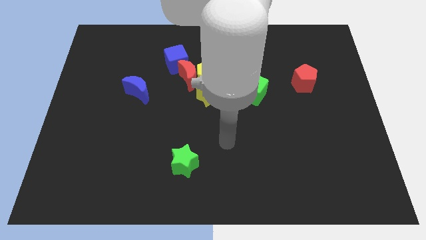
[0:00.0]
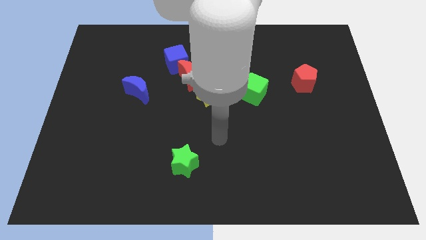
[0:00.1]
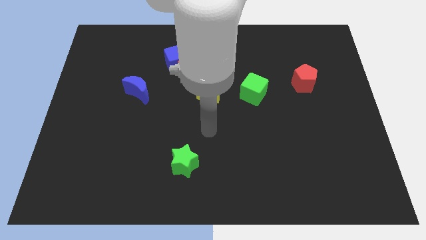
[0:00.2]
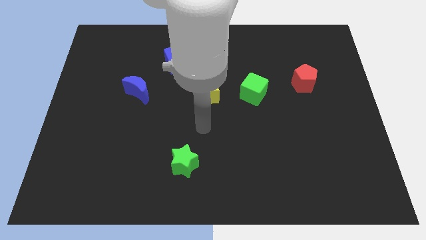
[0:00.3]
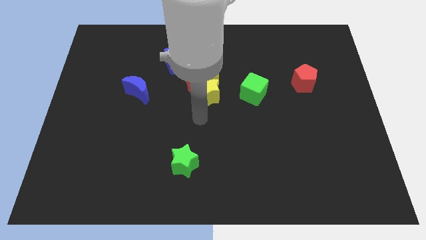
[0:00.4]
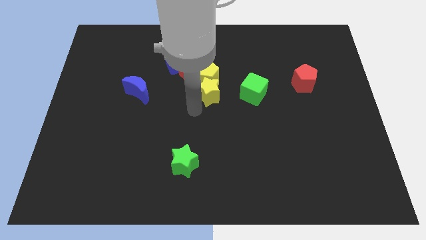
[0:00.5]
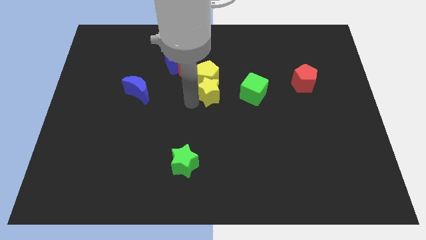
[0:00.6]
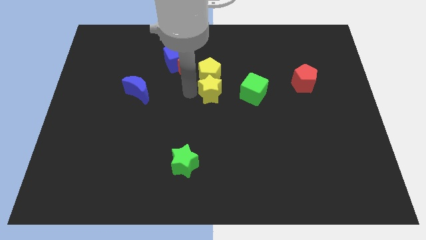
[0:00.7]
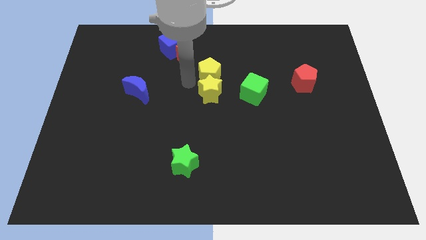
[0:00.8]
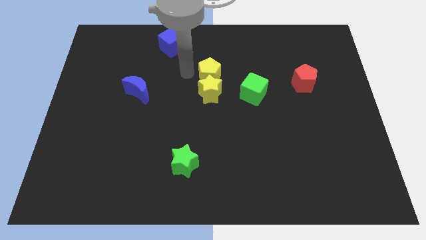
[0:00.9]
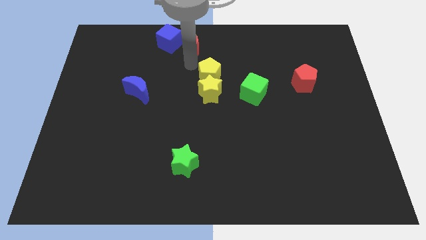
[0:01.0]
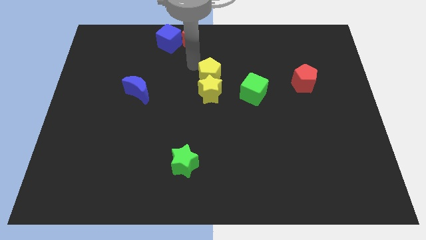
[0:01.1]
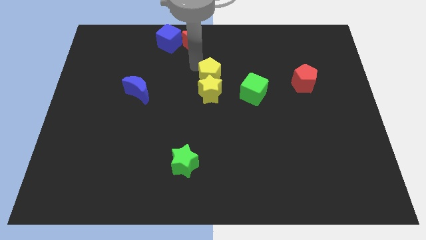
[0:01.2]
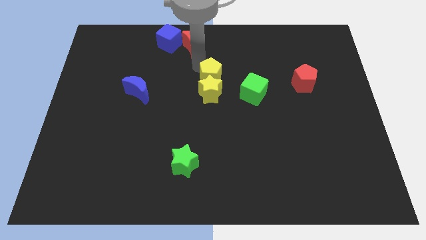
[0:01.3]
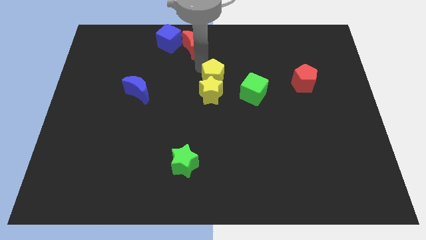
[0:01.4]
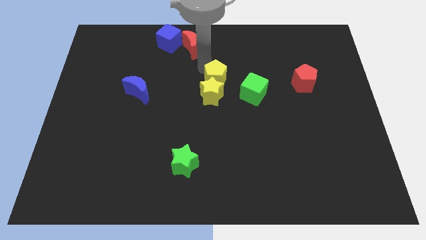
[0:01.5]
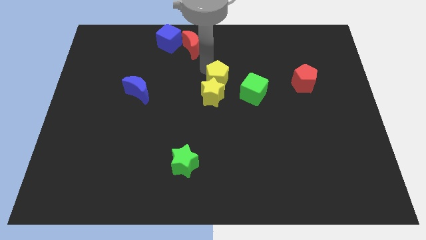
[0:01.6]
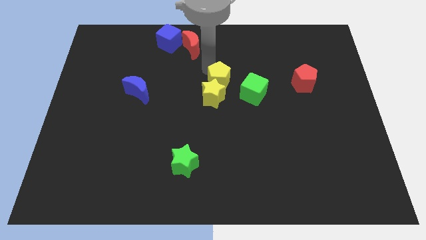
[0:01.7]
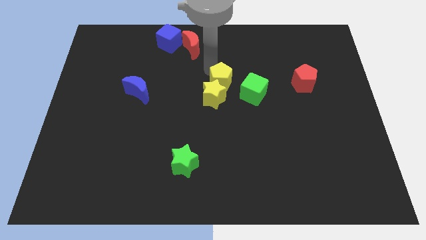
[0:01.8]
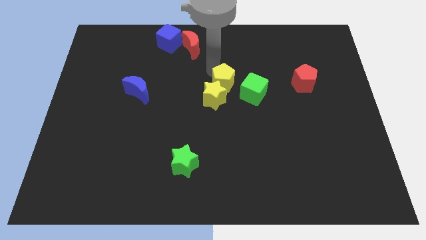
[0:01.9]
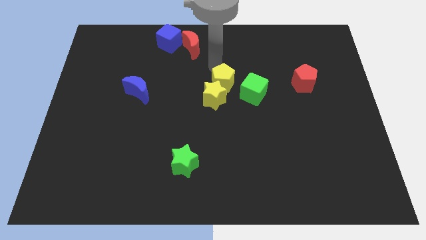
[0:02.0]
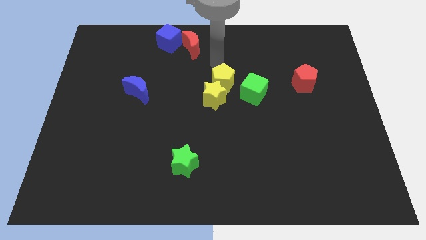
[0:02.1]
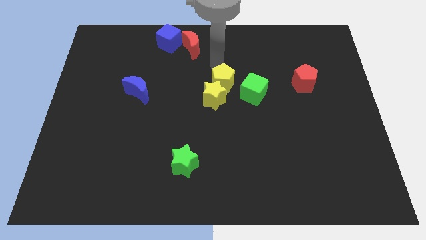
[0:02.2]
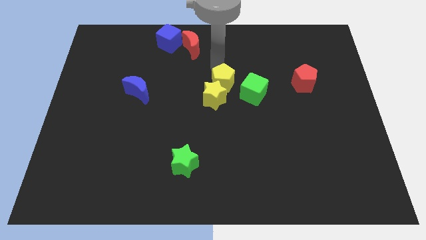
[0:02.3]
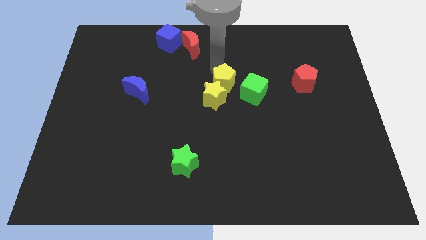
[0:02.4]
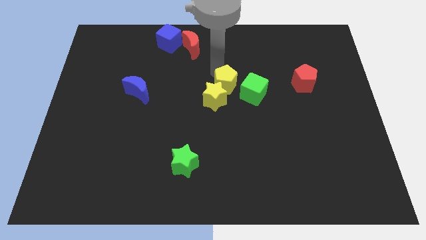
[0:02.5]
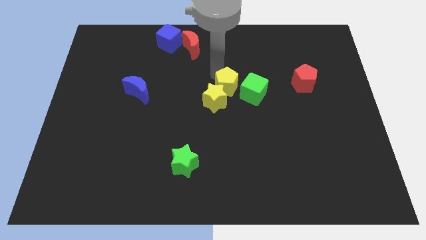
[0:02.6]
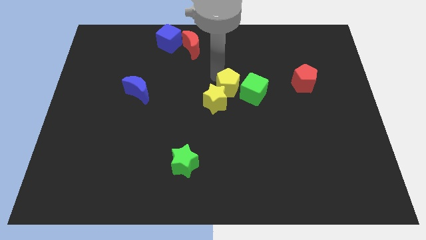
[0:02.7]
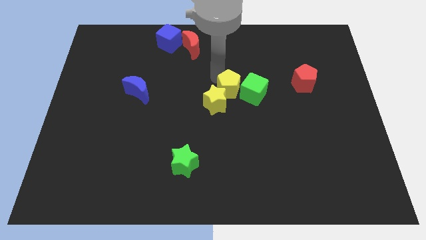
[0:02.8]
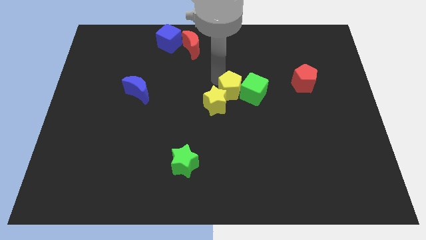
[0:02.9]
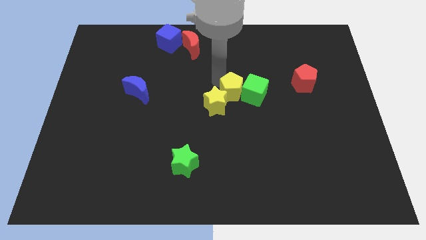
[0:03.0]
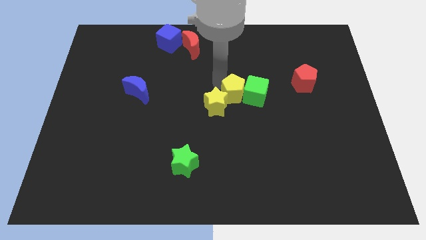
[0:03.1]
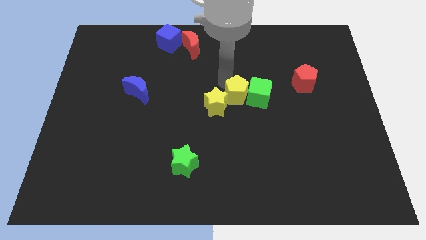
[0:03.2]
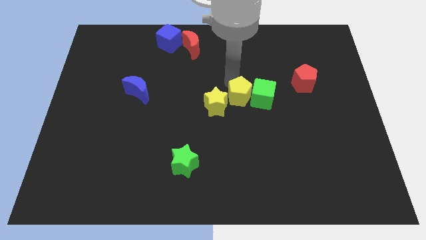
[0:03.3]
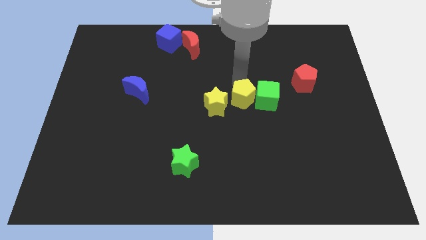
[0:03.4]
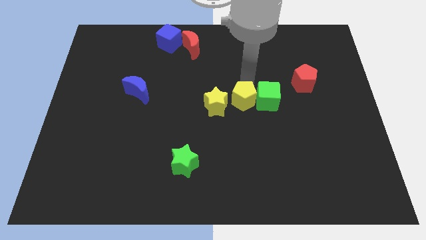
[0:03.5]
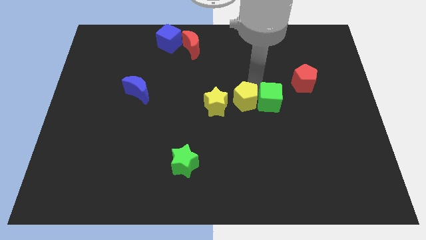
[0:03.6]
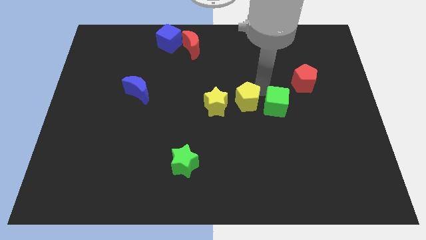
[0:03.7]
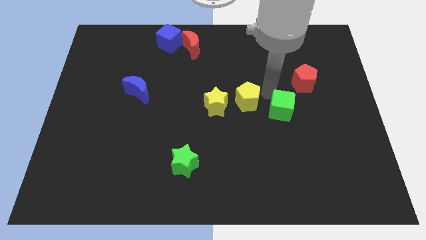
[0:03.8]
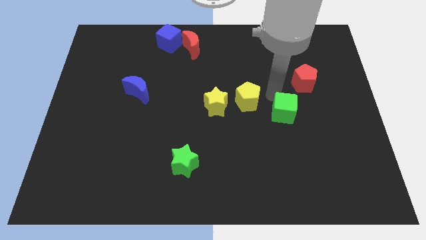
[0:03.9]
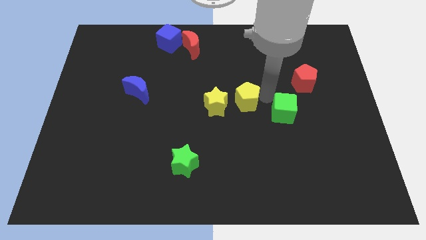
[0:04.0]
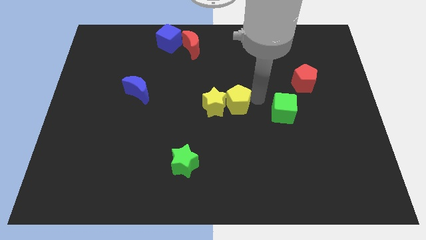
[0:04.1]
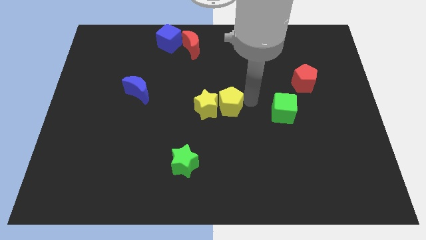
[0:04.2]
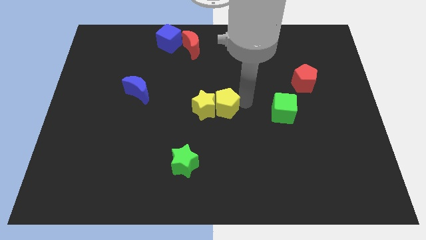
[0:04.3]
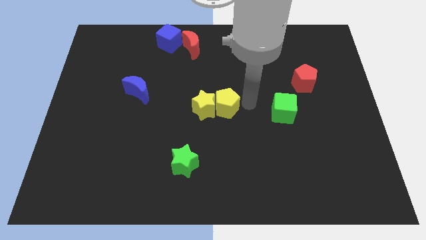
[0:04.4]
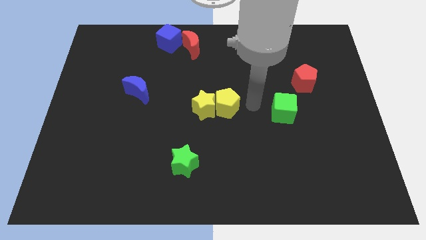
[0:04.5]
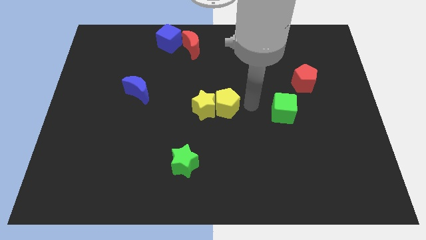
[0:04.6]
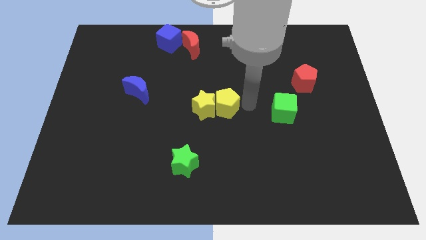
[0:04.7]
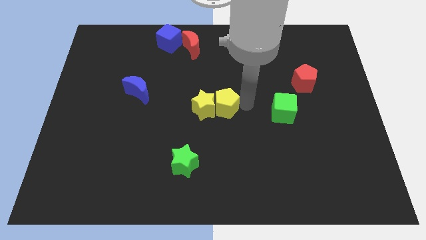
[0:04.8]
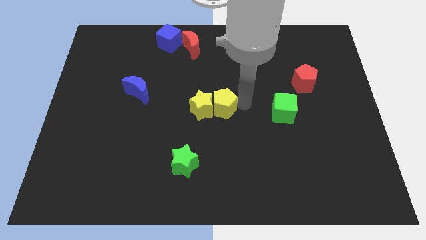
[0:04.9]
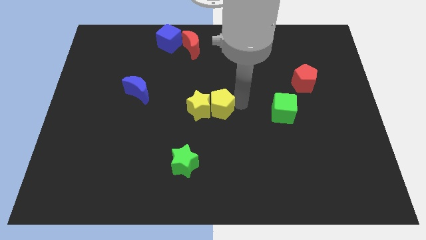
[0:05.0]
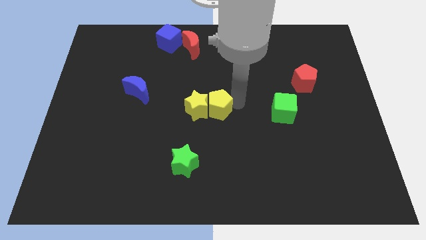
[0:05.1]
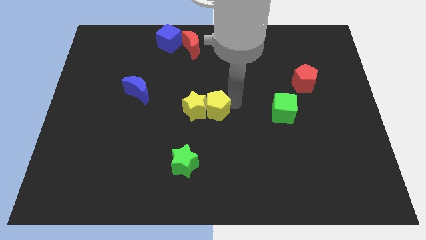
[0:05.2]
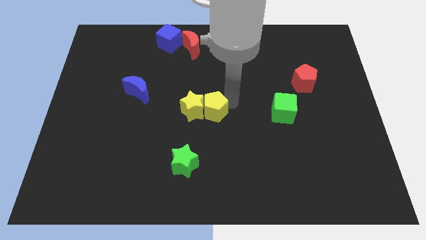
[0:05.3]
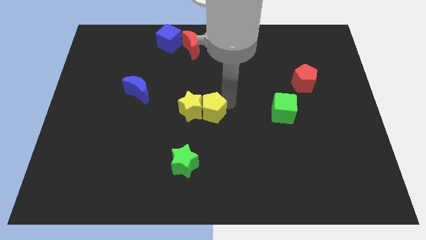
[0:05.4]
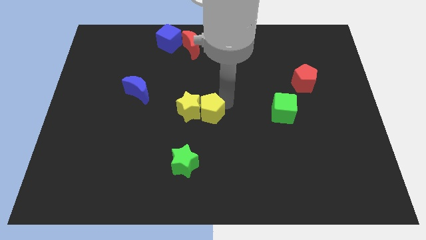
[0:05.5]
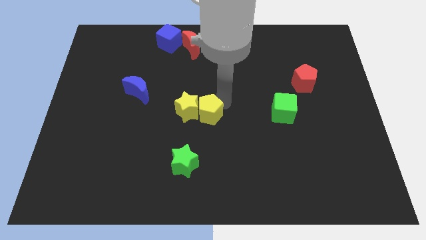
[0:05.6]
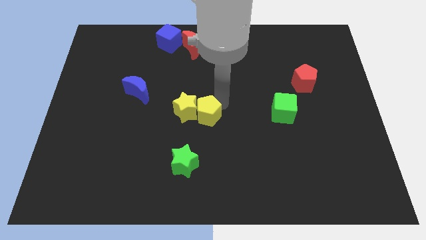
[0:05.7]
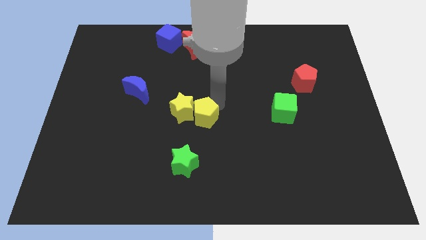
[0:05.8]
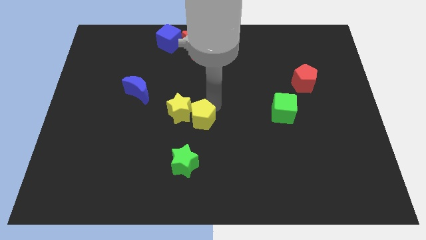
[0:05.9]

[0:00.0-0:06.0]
slightly slide the yellow pentagon down and left

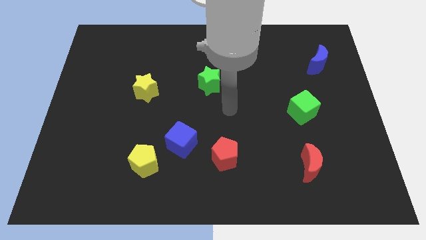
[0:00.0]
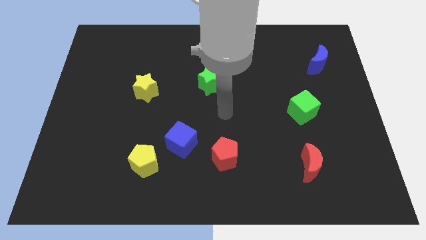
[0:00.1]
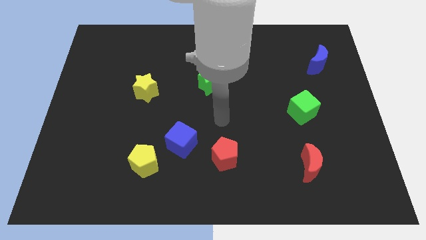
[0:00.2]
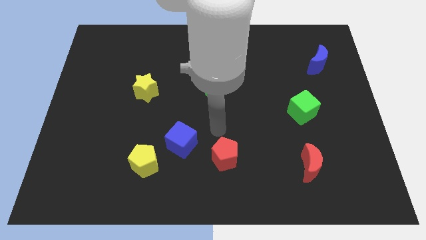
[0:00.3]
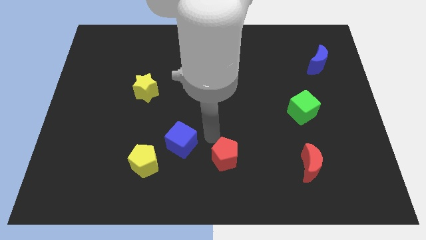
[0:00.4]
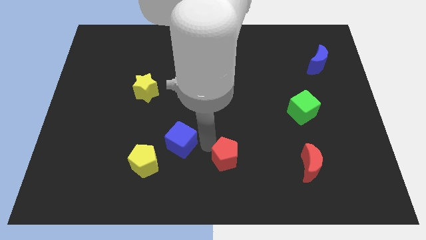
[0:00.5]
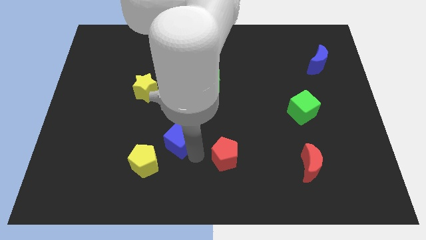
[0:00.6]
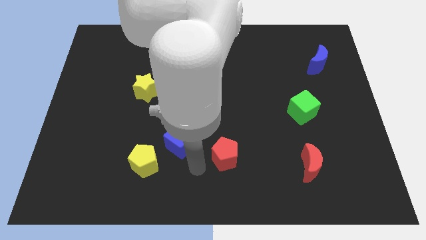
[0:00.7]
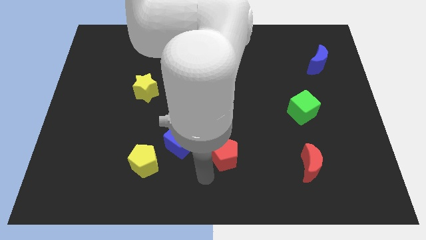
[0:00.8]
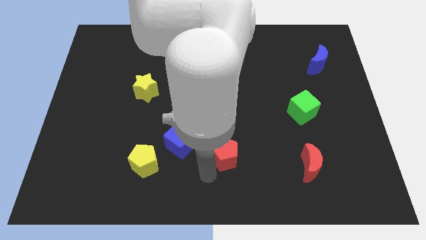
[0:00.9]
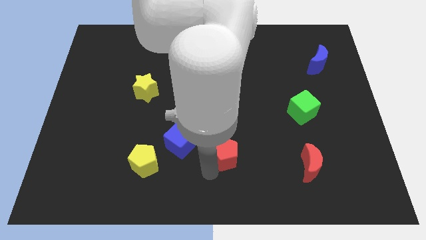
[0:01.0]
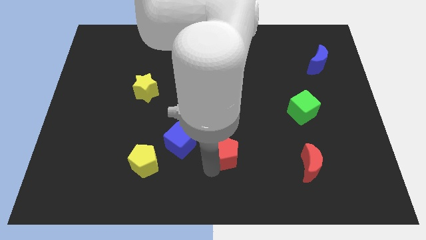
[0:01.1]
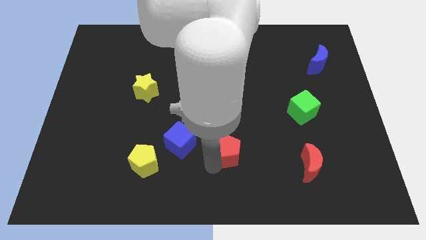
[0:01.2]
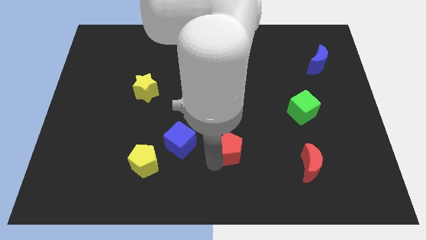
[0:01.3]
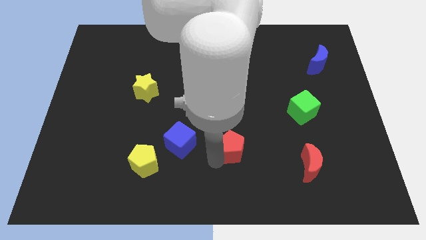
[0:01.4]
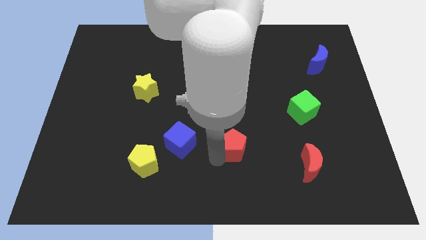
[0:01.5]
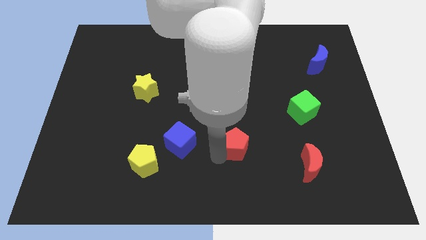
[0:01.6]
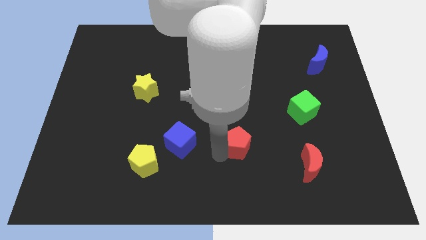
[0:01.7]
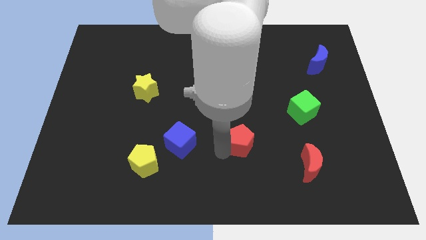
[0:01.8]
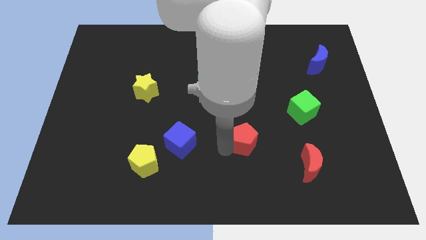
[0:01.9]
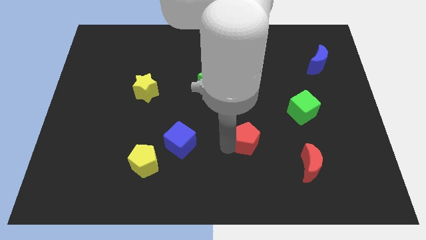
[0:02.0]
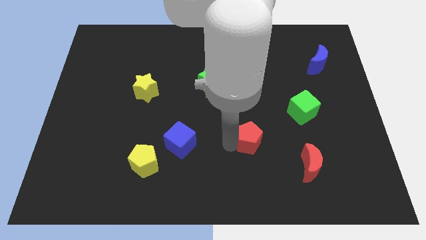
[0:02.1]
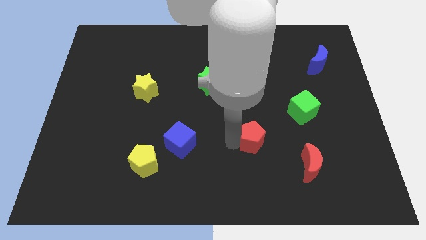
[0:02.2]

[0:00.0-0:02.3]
slightly slide the red pentagon upwards and to the right
